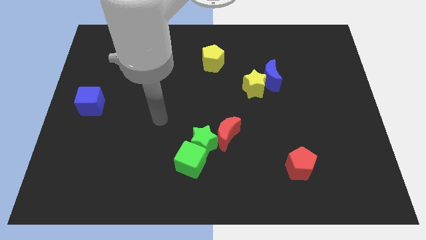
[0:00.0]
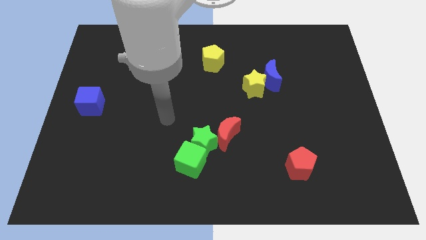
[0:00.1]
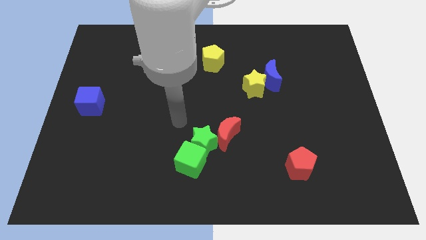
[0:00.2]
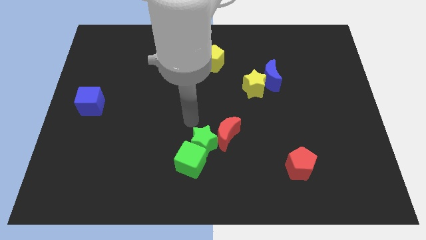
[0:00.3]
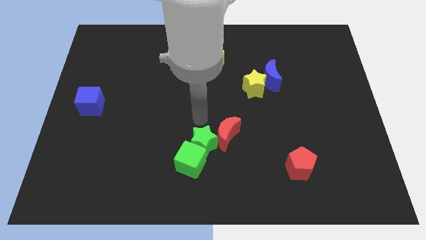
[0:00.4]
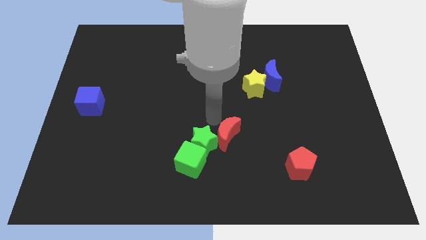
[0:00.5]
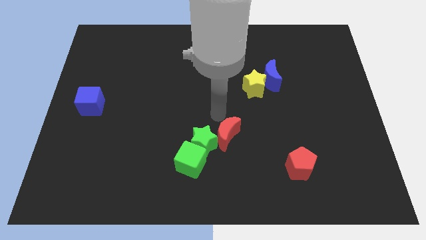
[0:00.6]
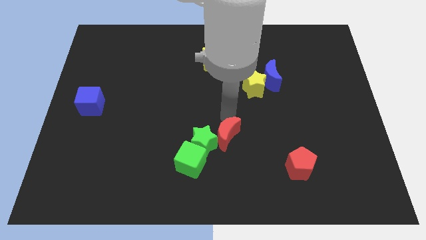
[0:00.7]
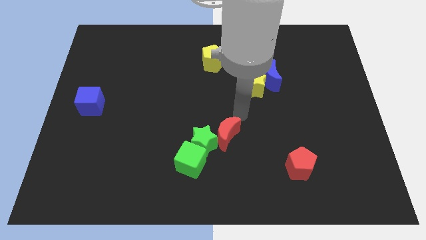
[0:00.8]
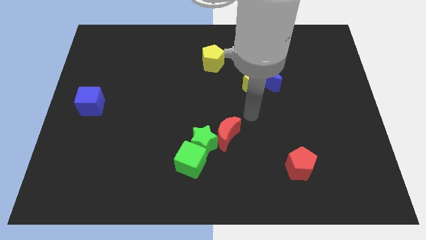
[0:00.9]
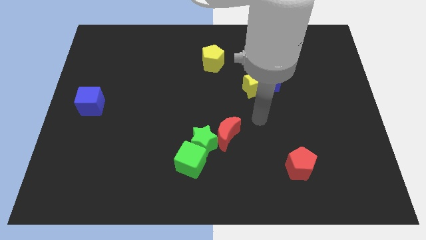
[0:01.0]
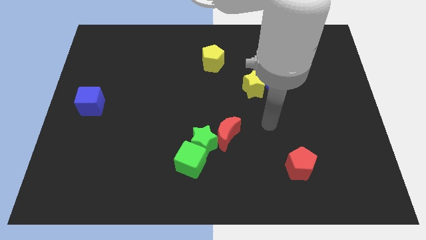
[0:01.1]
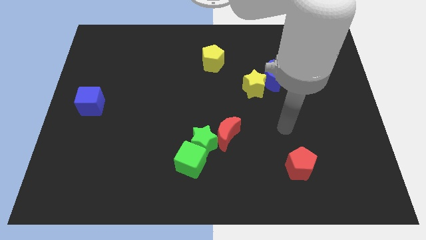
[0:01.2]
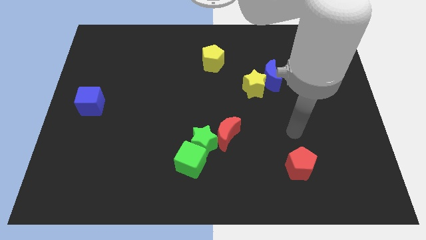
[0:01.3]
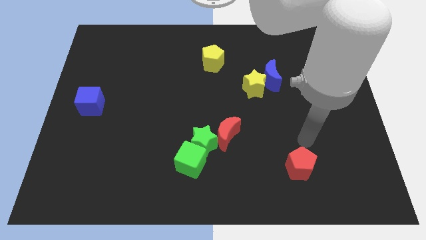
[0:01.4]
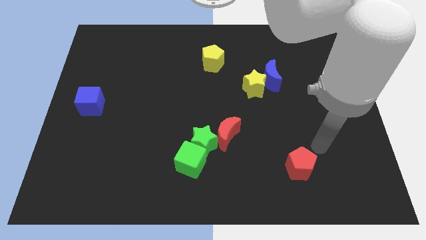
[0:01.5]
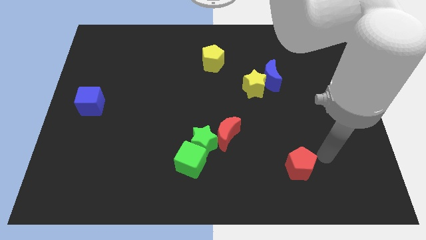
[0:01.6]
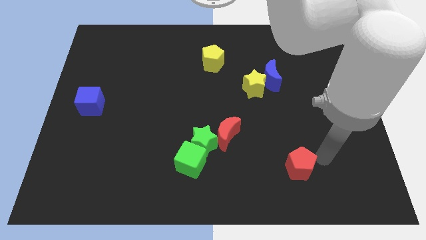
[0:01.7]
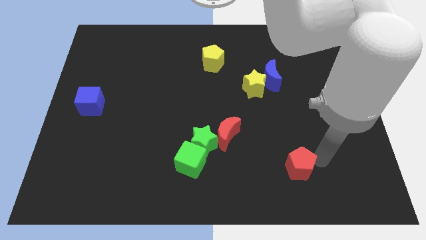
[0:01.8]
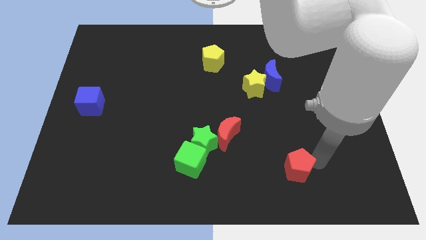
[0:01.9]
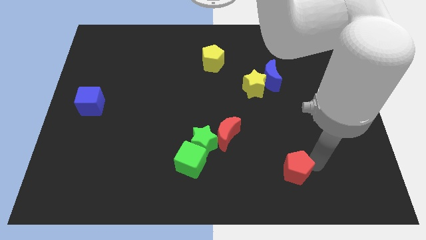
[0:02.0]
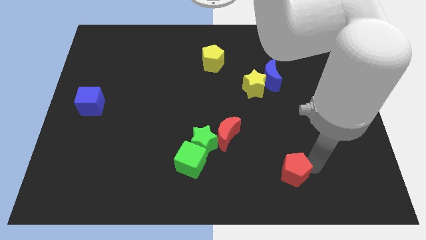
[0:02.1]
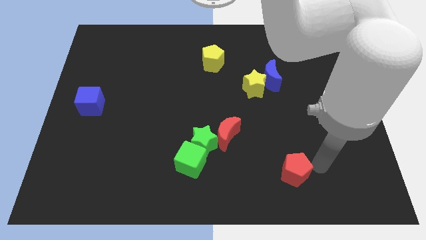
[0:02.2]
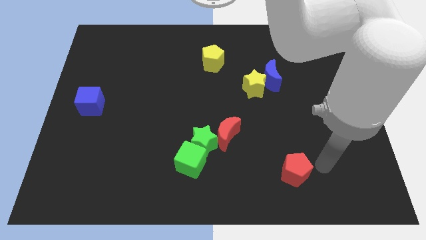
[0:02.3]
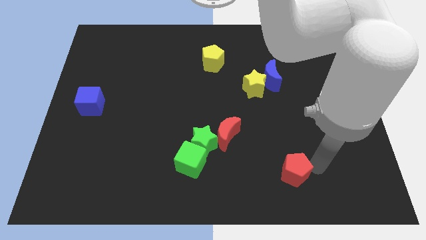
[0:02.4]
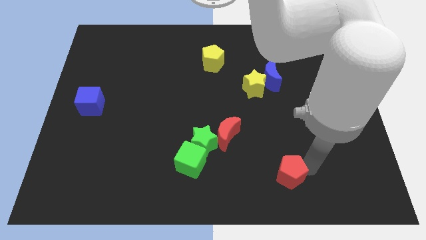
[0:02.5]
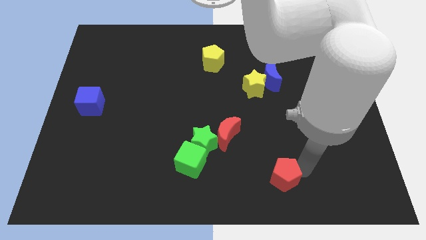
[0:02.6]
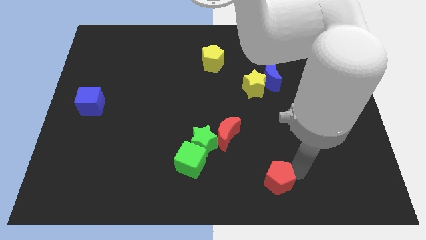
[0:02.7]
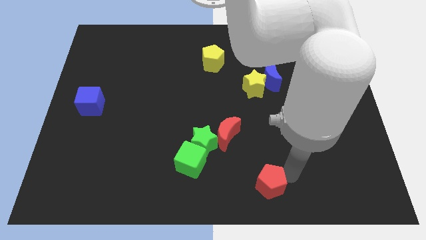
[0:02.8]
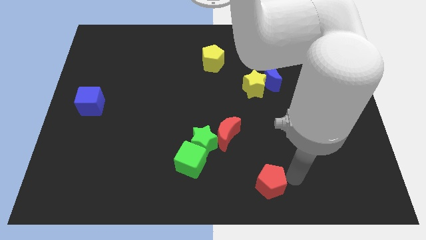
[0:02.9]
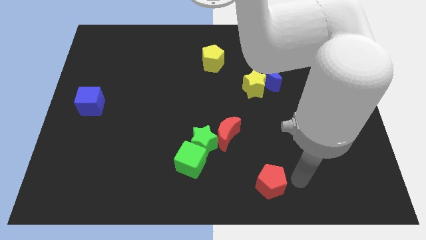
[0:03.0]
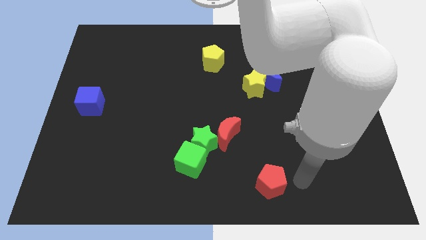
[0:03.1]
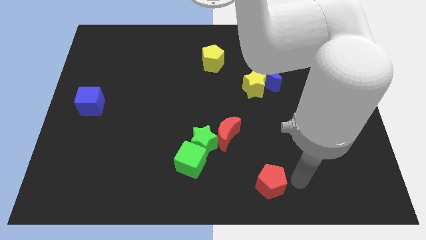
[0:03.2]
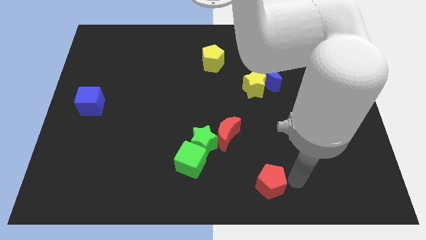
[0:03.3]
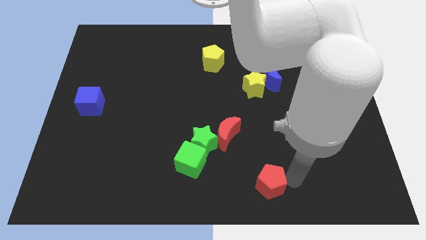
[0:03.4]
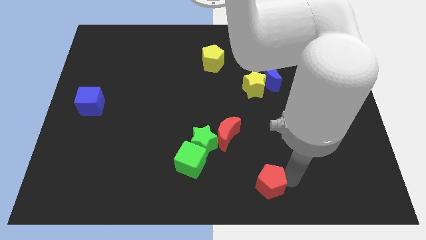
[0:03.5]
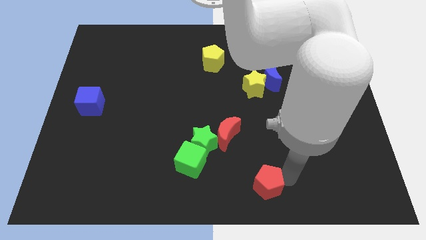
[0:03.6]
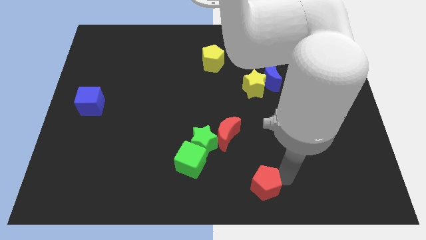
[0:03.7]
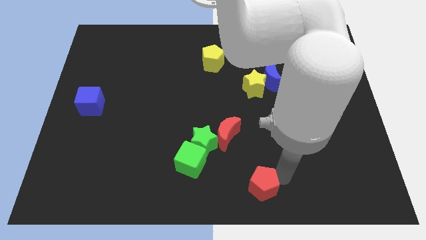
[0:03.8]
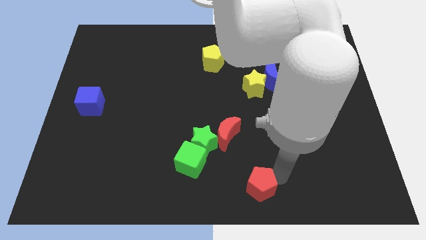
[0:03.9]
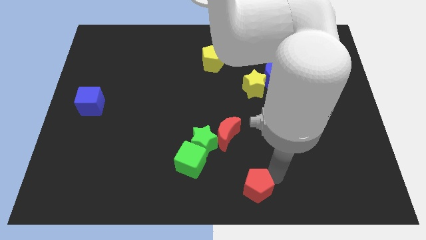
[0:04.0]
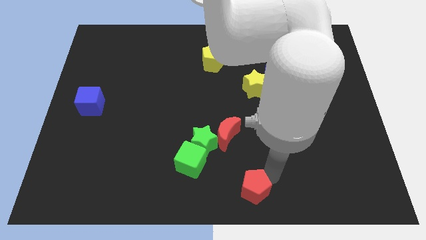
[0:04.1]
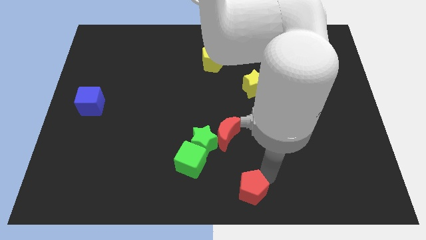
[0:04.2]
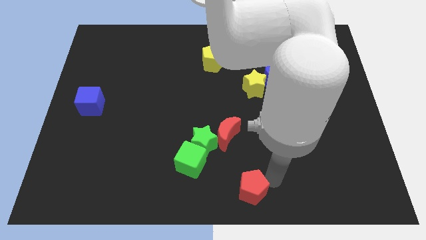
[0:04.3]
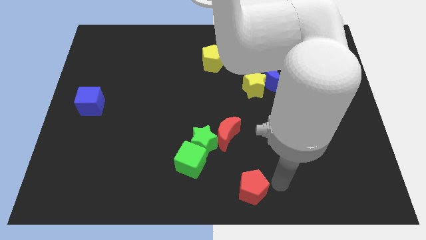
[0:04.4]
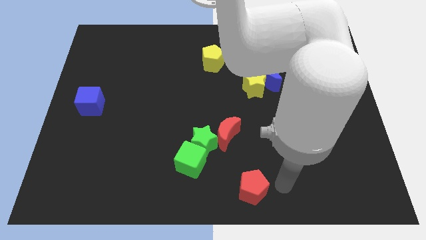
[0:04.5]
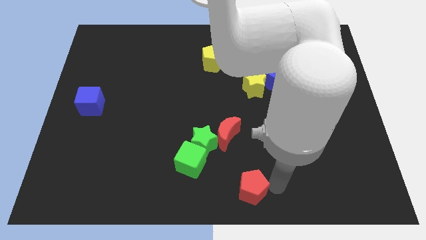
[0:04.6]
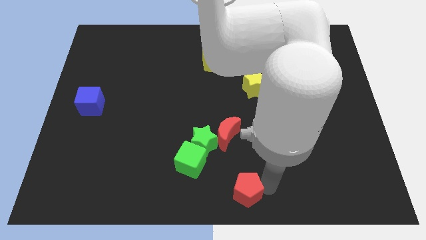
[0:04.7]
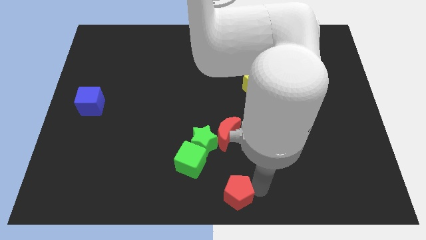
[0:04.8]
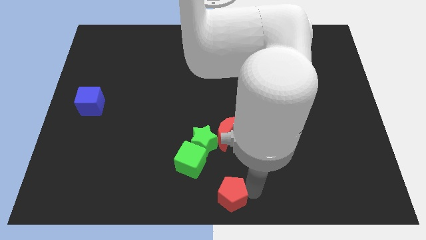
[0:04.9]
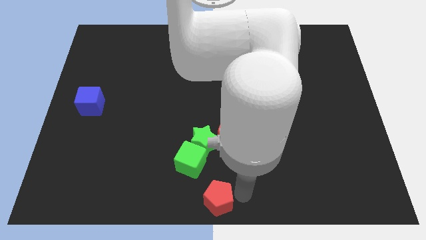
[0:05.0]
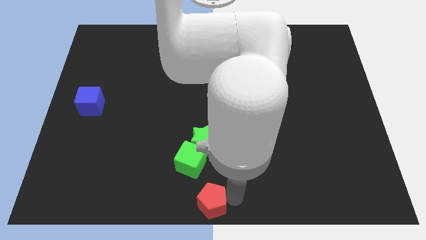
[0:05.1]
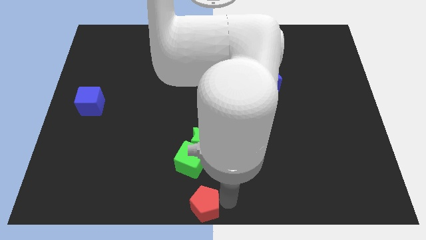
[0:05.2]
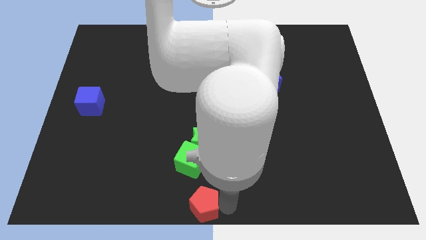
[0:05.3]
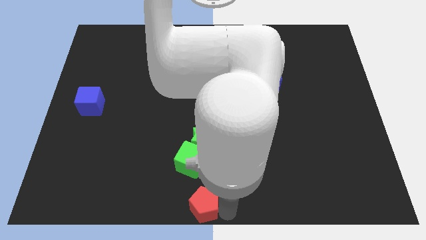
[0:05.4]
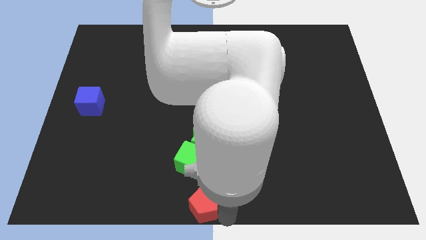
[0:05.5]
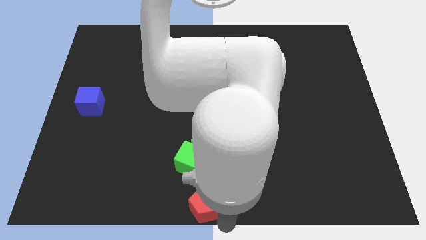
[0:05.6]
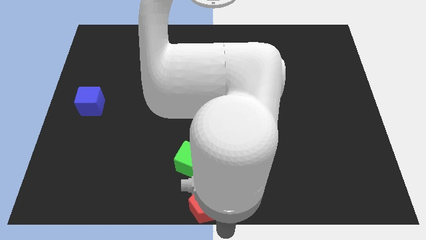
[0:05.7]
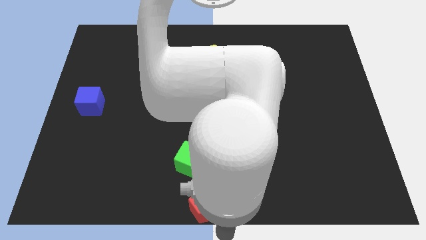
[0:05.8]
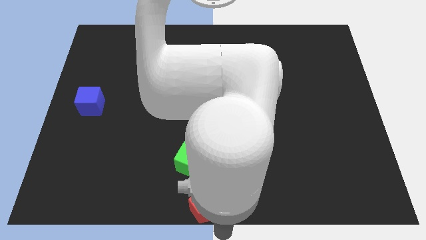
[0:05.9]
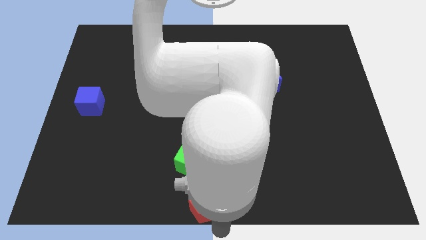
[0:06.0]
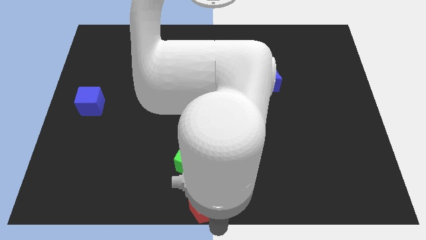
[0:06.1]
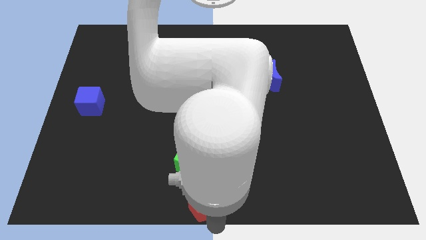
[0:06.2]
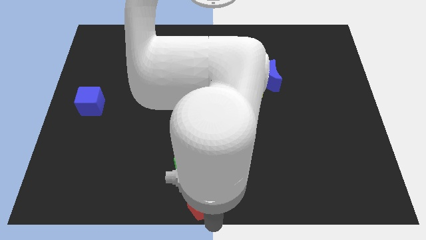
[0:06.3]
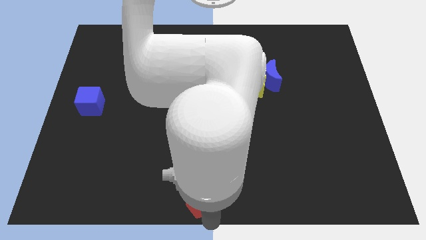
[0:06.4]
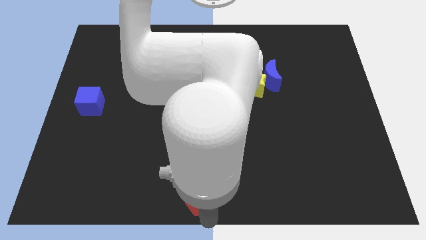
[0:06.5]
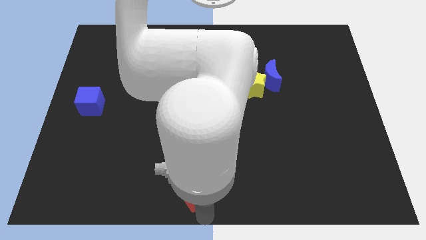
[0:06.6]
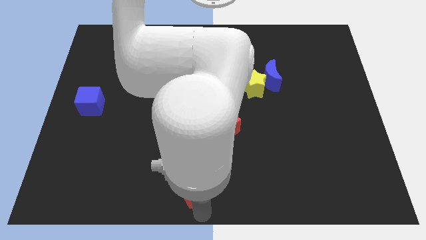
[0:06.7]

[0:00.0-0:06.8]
slide the red pentagon to the left

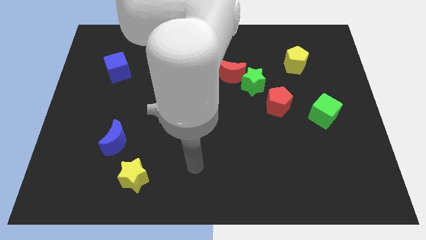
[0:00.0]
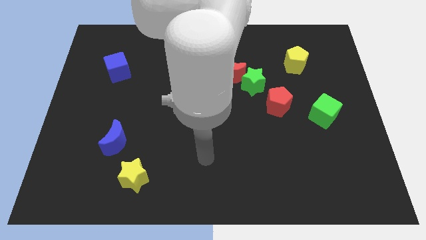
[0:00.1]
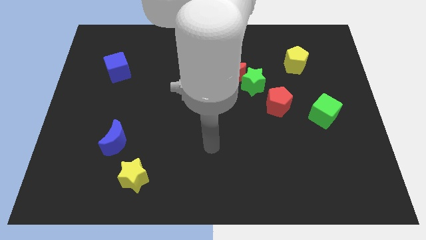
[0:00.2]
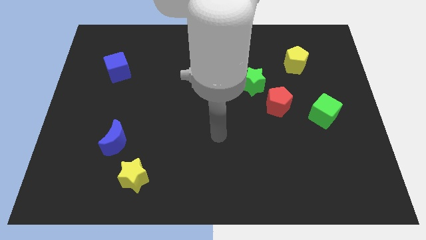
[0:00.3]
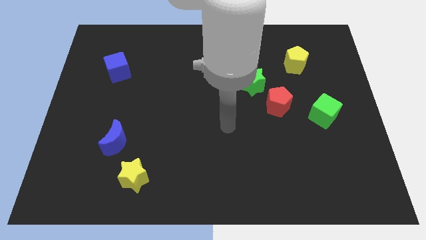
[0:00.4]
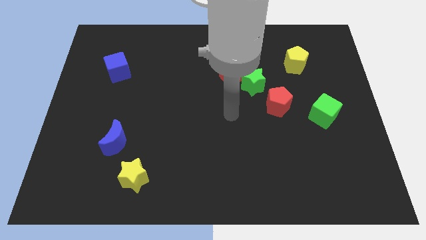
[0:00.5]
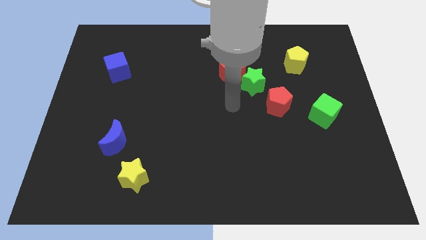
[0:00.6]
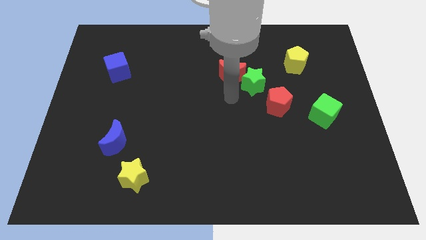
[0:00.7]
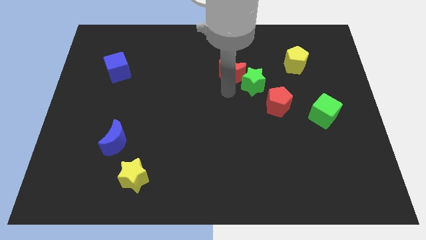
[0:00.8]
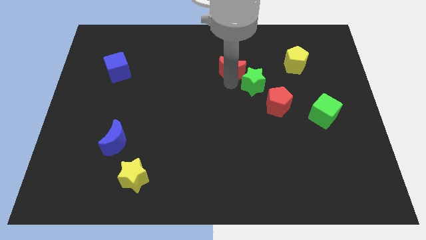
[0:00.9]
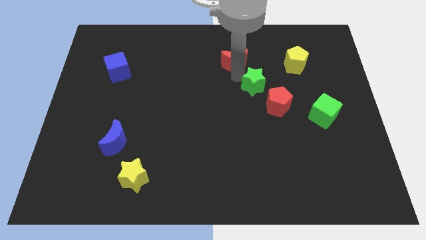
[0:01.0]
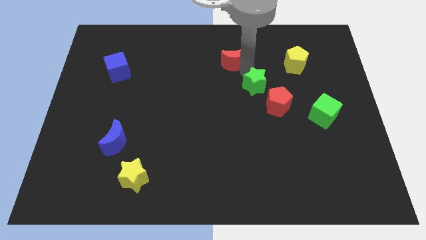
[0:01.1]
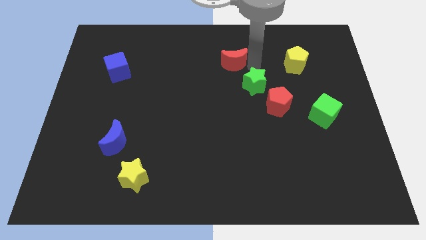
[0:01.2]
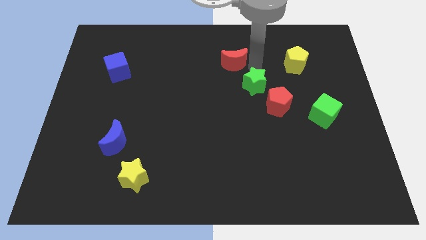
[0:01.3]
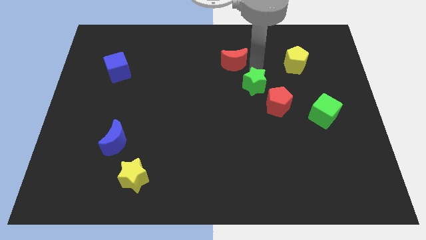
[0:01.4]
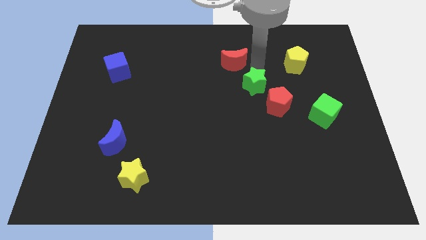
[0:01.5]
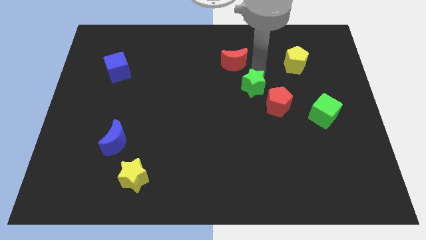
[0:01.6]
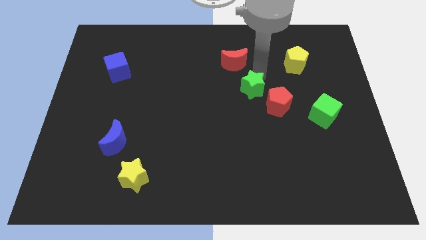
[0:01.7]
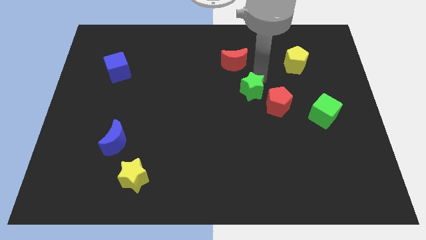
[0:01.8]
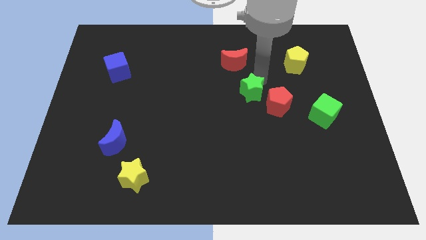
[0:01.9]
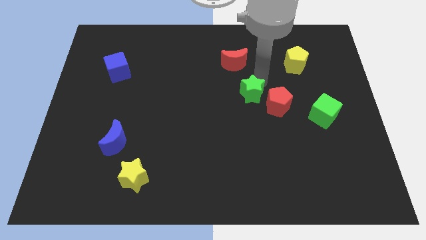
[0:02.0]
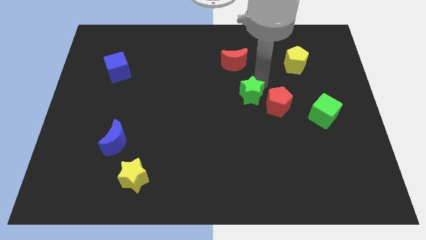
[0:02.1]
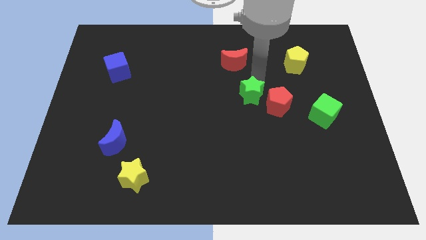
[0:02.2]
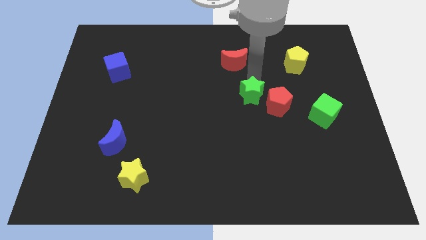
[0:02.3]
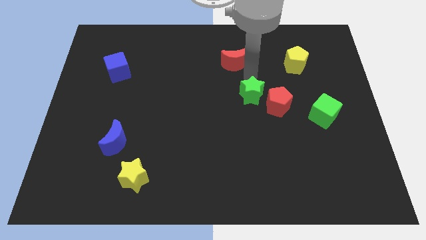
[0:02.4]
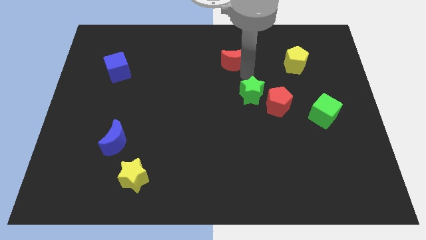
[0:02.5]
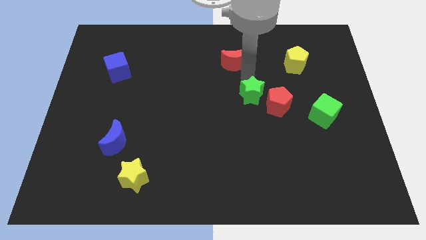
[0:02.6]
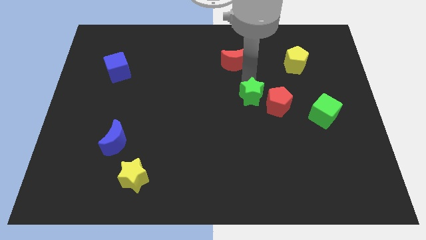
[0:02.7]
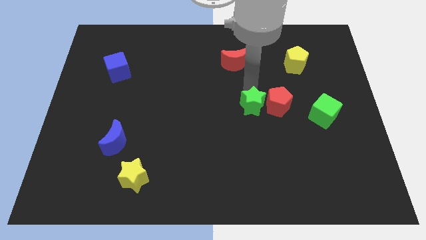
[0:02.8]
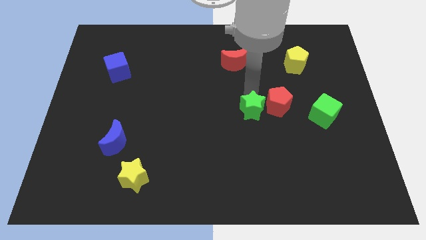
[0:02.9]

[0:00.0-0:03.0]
move the green star somewhat downwards
